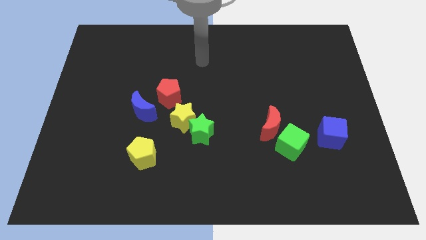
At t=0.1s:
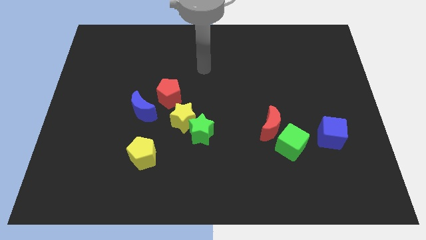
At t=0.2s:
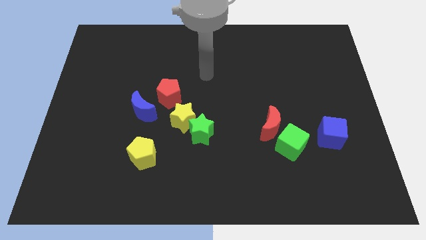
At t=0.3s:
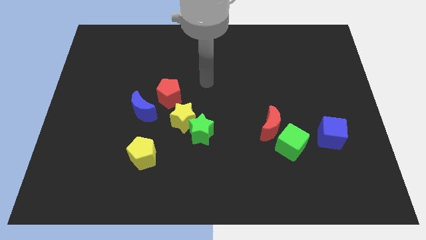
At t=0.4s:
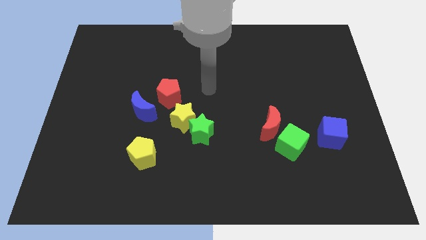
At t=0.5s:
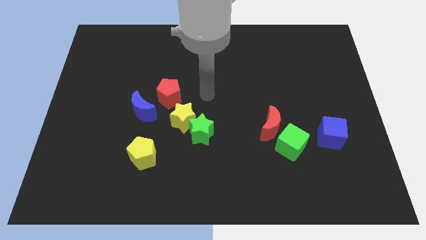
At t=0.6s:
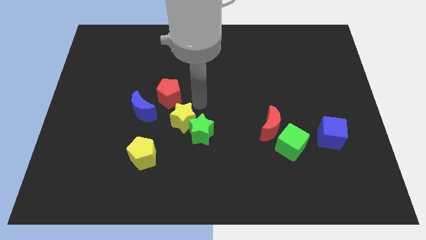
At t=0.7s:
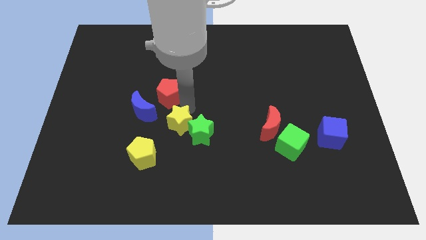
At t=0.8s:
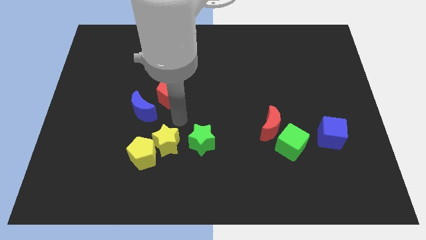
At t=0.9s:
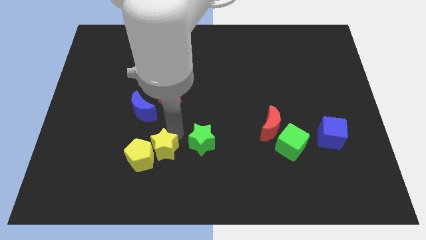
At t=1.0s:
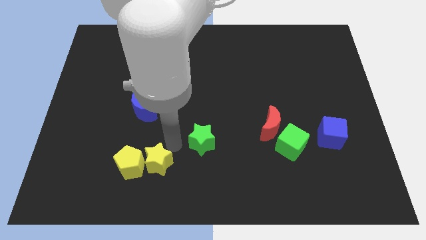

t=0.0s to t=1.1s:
separate the green star from the yellow star

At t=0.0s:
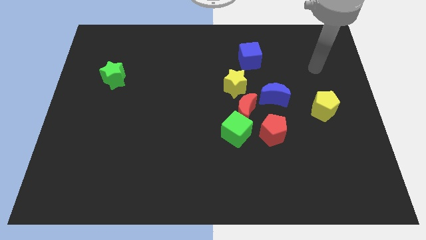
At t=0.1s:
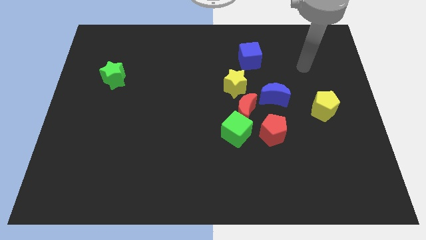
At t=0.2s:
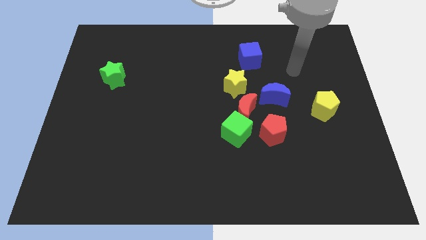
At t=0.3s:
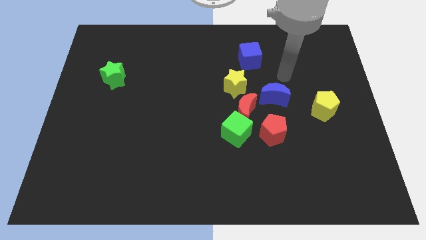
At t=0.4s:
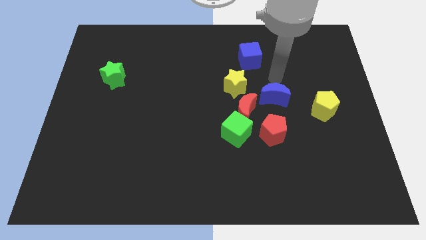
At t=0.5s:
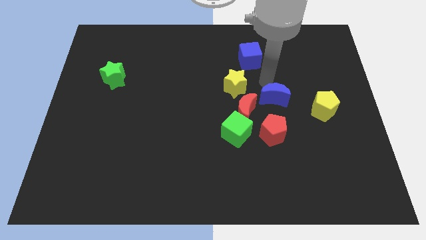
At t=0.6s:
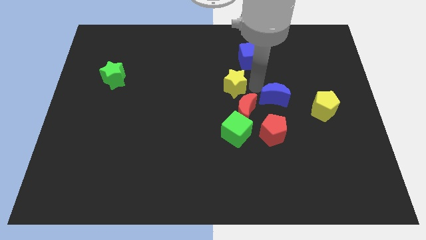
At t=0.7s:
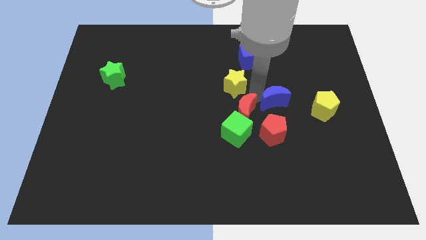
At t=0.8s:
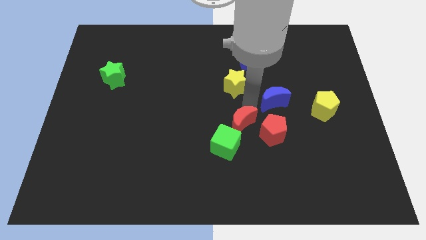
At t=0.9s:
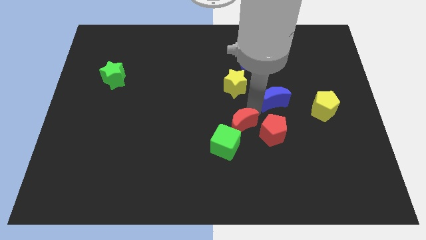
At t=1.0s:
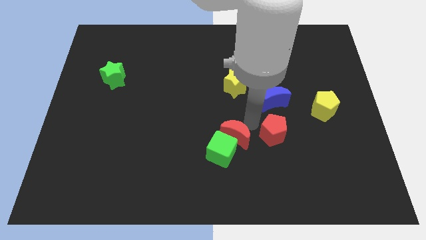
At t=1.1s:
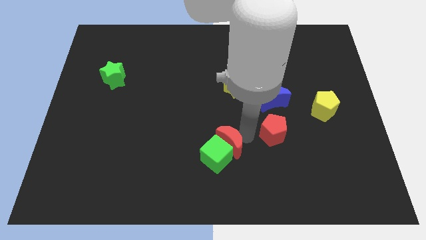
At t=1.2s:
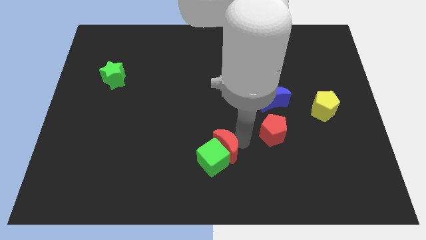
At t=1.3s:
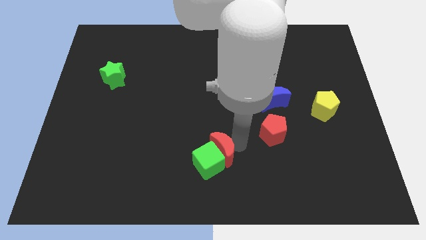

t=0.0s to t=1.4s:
pull the green cube apart from the red moon and red pentagon

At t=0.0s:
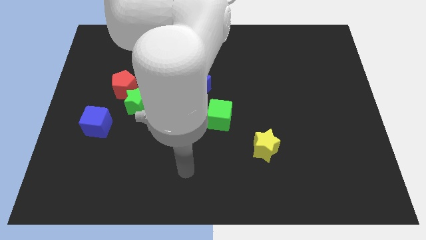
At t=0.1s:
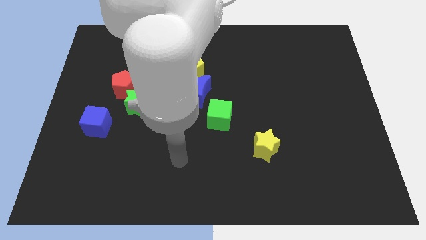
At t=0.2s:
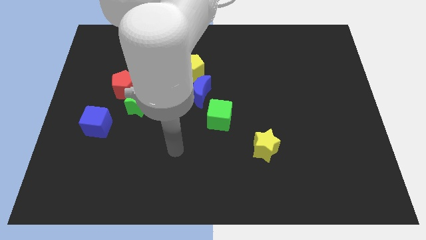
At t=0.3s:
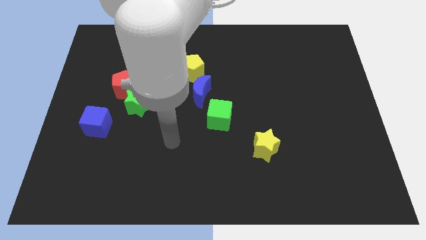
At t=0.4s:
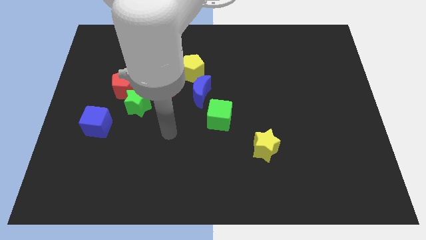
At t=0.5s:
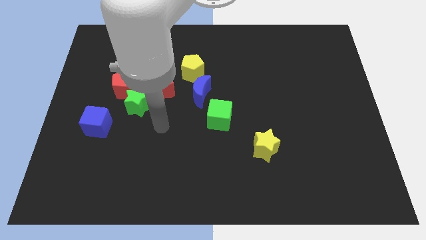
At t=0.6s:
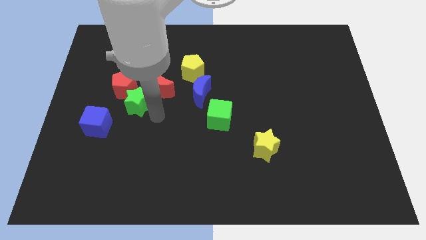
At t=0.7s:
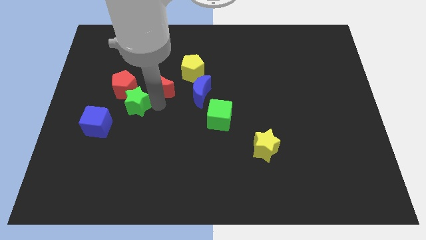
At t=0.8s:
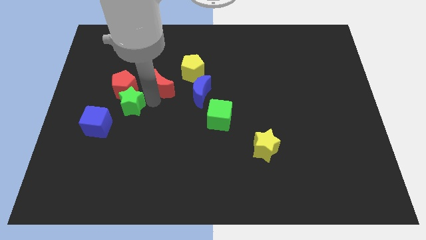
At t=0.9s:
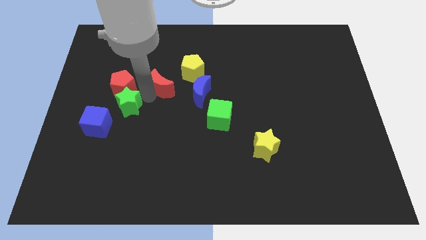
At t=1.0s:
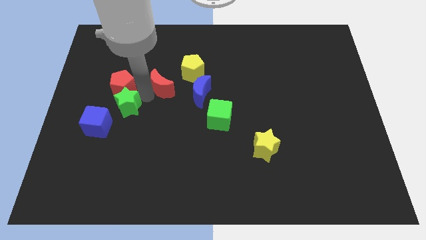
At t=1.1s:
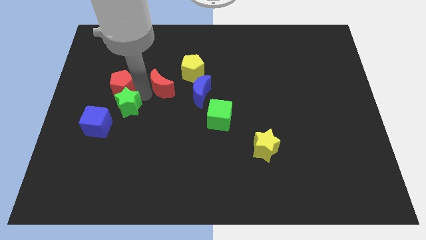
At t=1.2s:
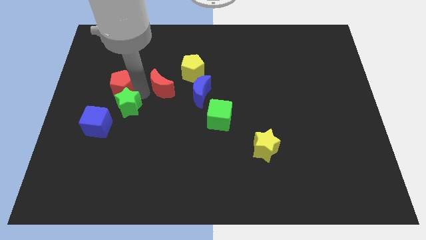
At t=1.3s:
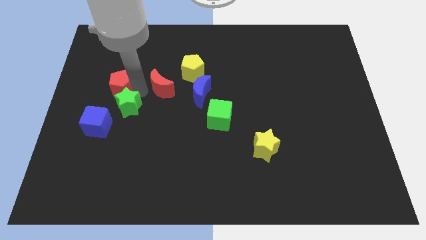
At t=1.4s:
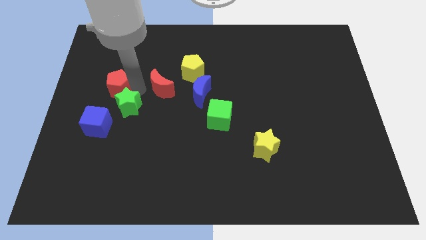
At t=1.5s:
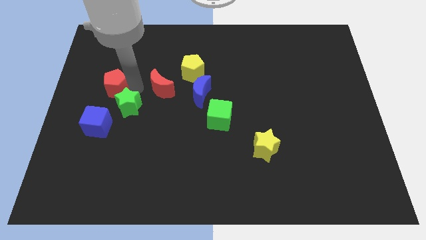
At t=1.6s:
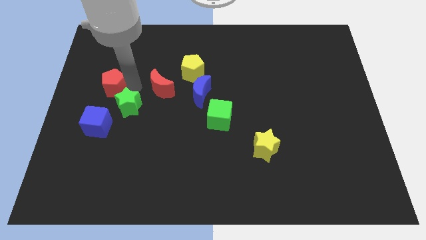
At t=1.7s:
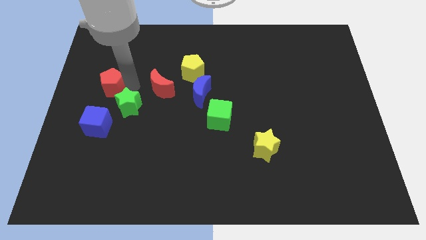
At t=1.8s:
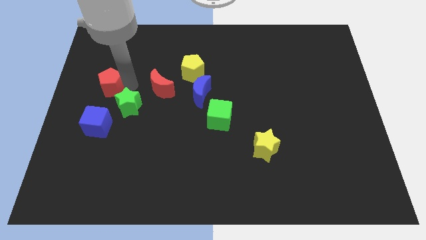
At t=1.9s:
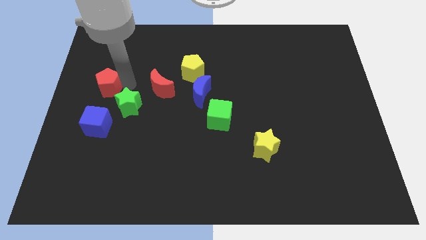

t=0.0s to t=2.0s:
separate the red pentagon from the green star and red moon

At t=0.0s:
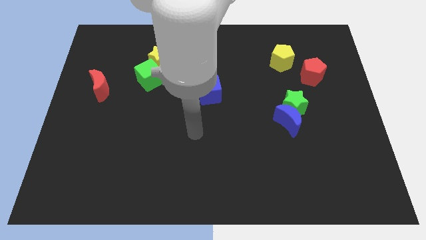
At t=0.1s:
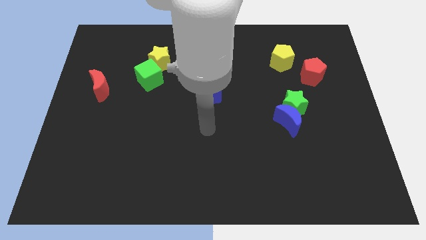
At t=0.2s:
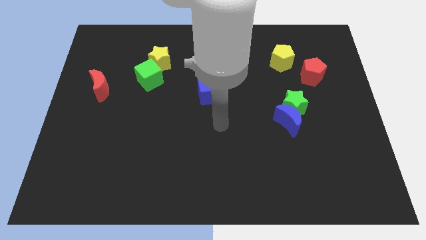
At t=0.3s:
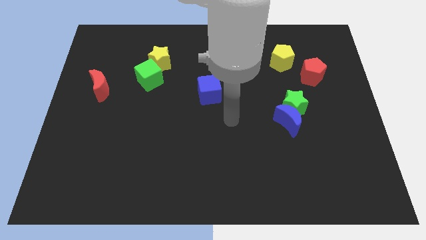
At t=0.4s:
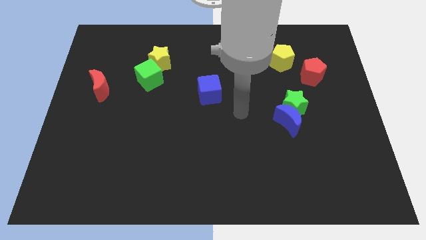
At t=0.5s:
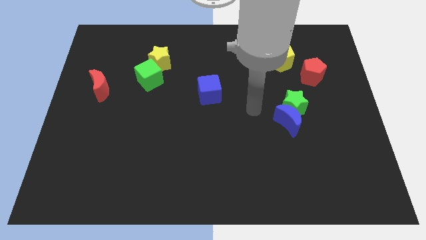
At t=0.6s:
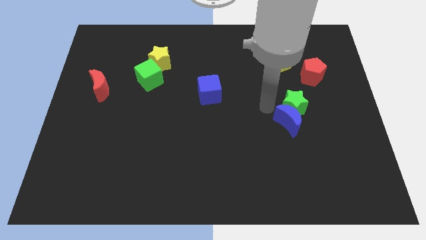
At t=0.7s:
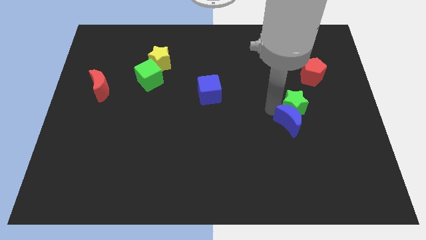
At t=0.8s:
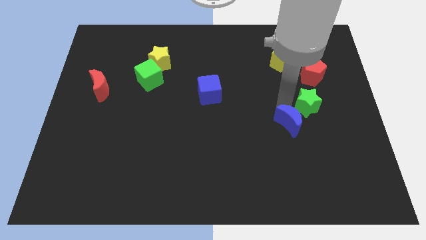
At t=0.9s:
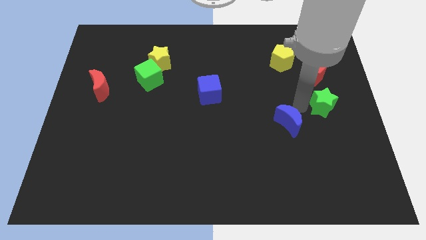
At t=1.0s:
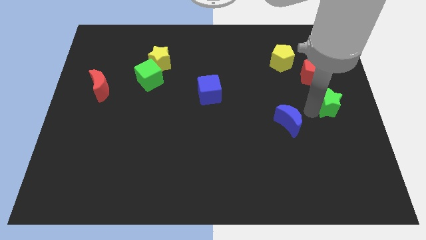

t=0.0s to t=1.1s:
separate the blue moon from the green star

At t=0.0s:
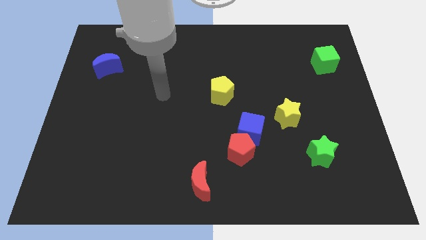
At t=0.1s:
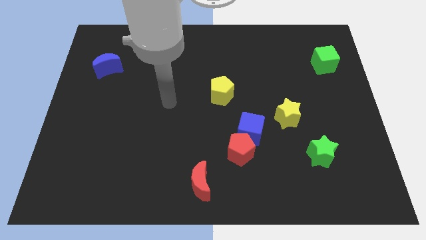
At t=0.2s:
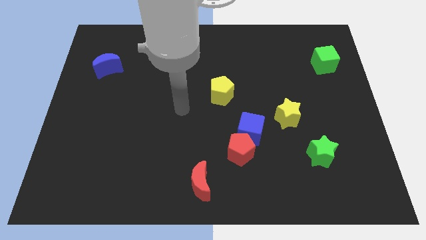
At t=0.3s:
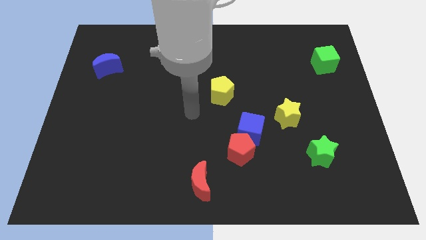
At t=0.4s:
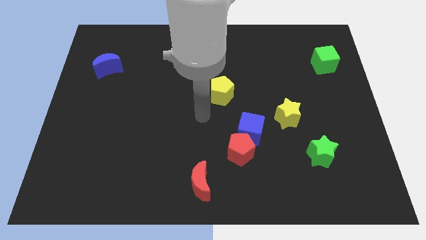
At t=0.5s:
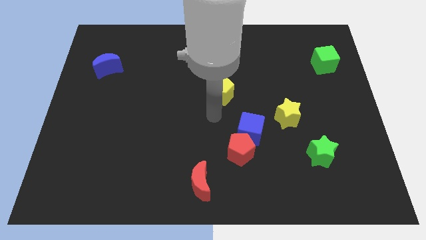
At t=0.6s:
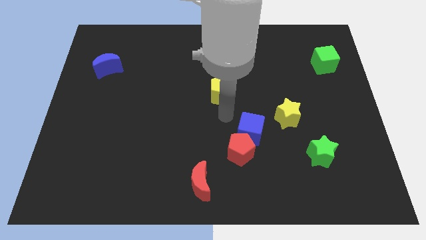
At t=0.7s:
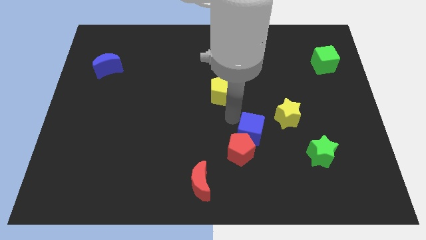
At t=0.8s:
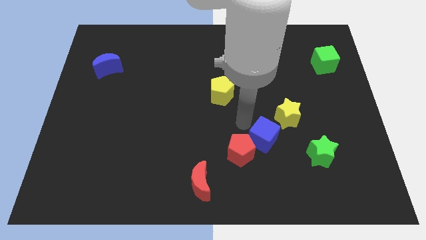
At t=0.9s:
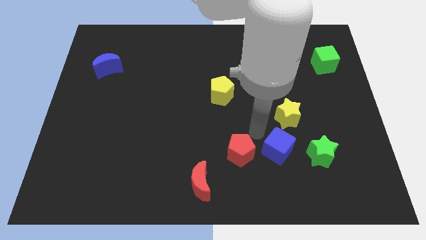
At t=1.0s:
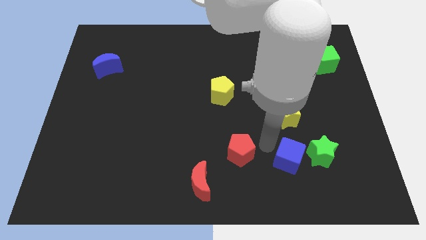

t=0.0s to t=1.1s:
separate the red pentagon from the blue cube

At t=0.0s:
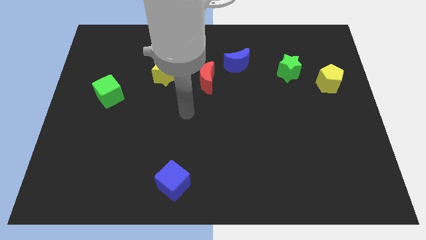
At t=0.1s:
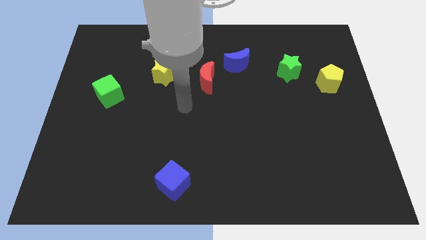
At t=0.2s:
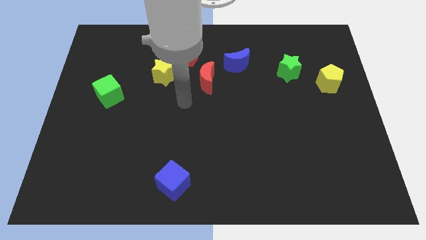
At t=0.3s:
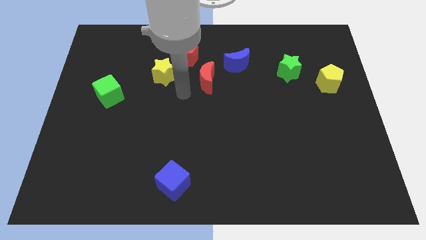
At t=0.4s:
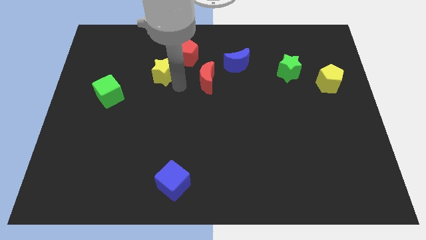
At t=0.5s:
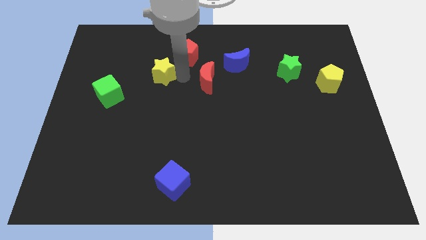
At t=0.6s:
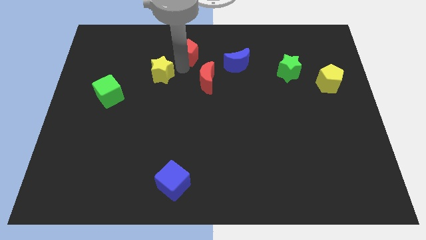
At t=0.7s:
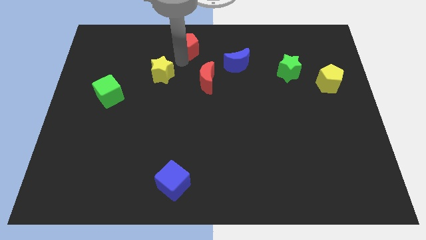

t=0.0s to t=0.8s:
separate the yellow star from the red pentagon

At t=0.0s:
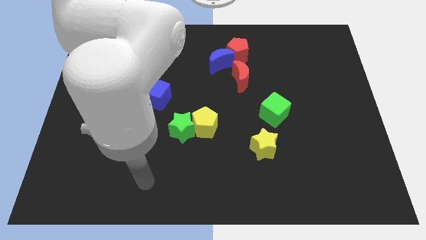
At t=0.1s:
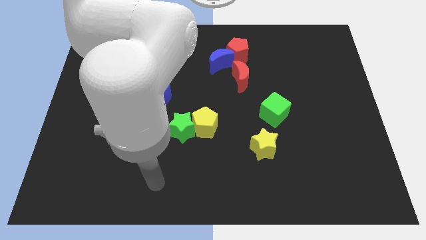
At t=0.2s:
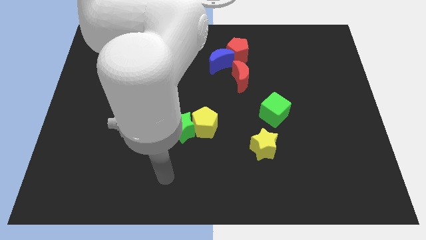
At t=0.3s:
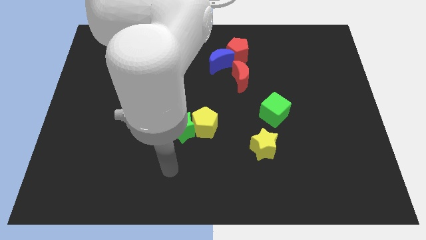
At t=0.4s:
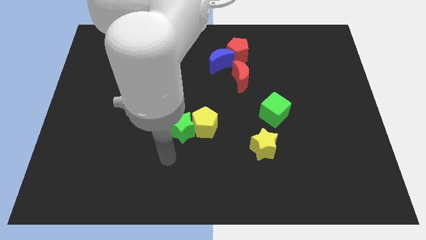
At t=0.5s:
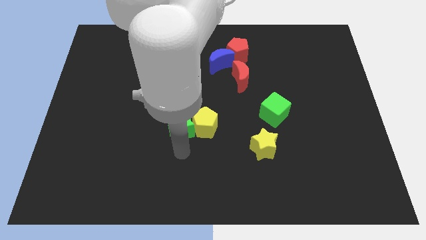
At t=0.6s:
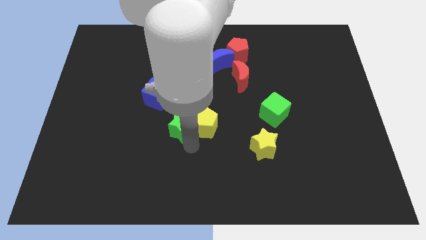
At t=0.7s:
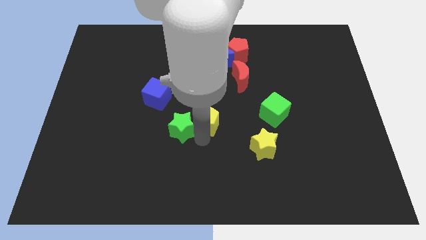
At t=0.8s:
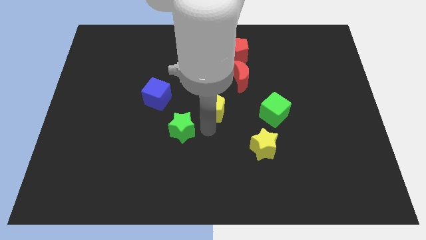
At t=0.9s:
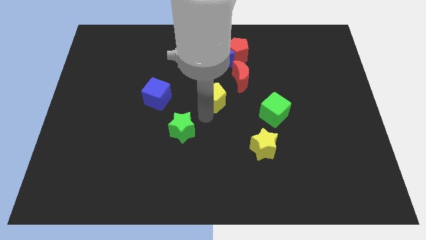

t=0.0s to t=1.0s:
pull the green star apart from the yellow pentagon

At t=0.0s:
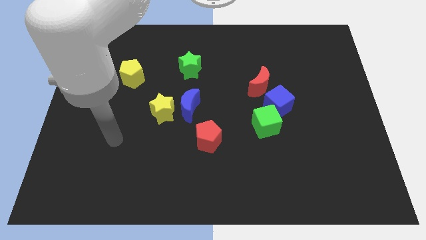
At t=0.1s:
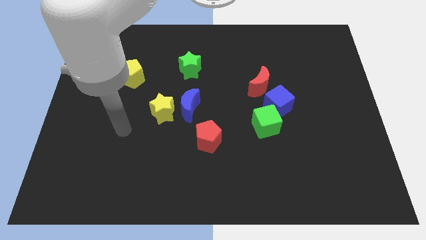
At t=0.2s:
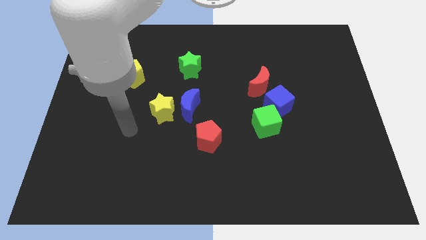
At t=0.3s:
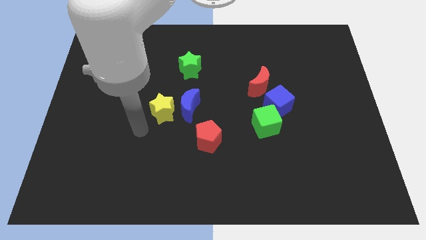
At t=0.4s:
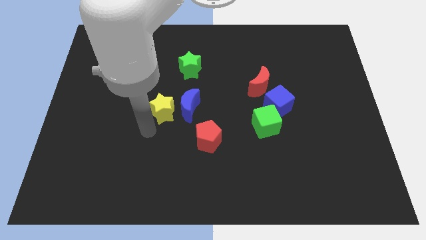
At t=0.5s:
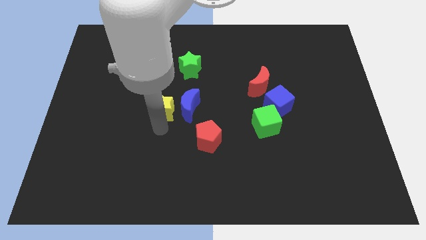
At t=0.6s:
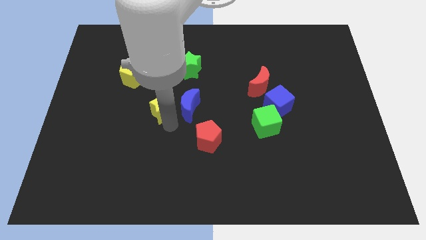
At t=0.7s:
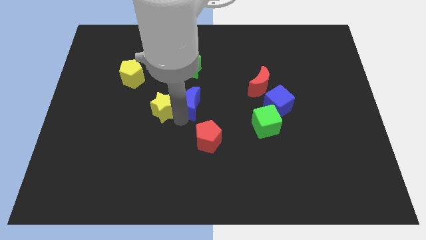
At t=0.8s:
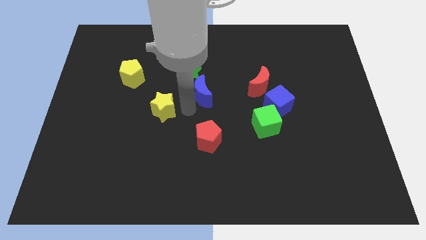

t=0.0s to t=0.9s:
pull the yellow star apart from the blue moon

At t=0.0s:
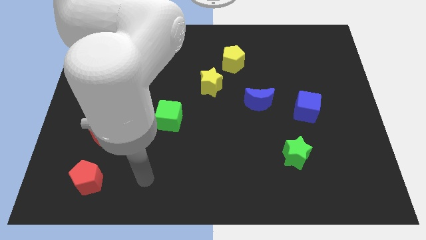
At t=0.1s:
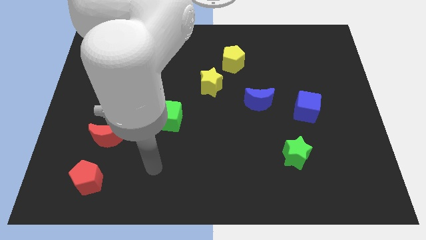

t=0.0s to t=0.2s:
separate the yellow star from the yellow pentagon
